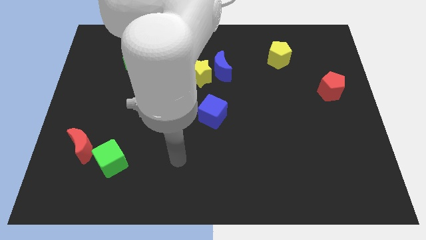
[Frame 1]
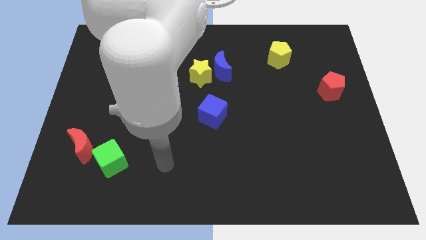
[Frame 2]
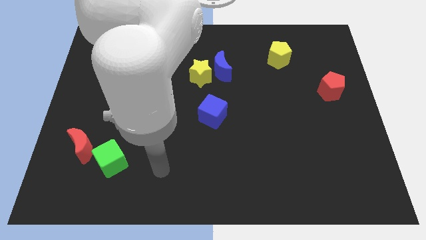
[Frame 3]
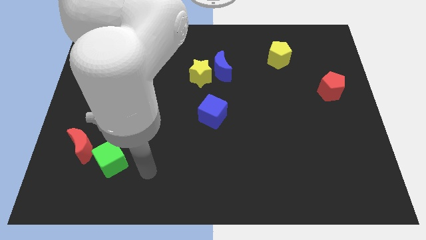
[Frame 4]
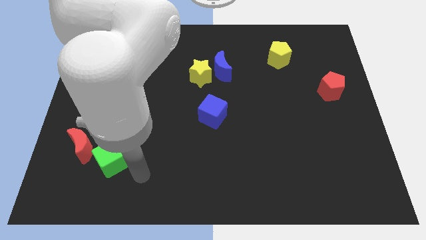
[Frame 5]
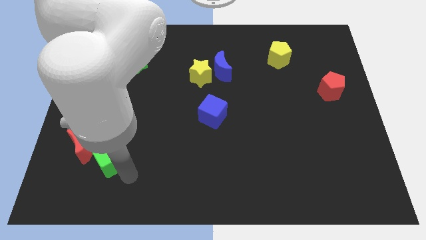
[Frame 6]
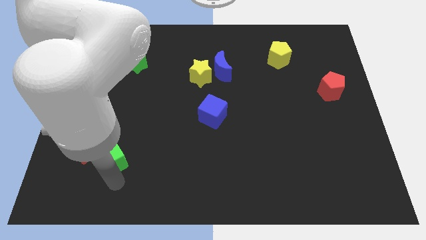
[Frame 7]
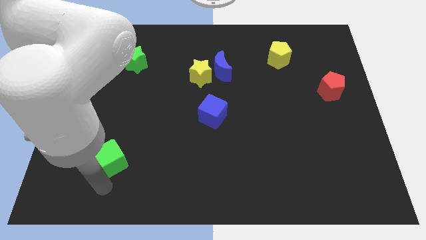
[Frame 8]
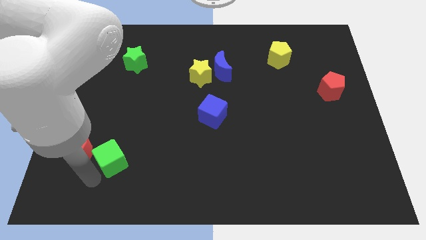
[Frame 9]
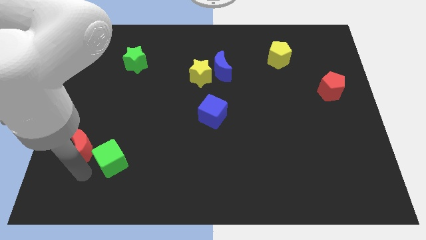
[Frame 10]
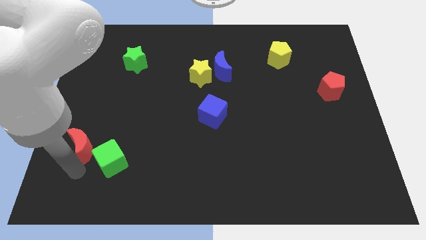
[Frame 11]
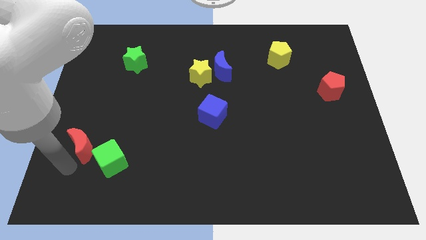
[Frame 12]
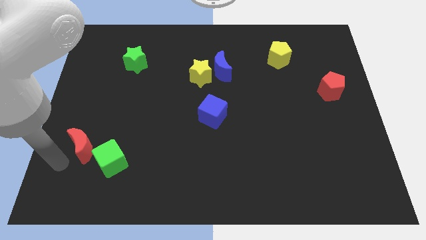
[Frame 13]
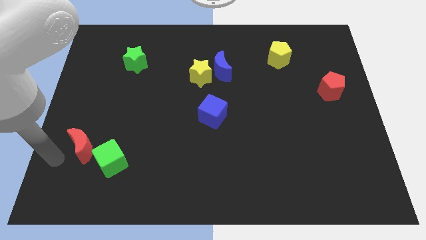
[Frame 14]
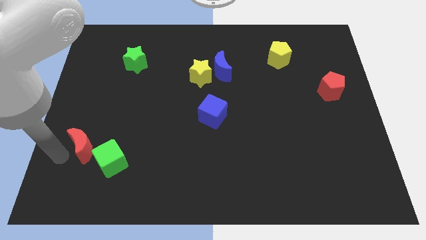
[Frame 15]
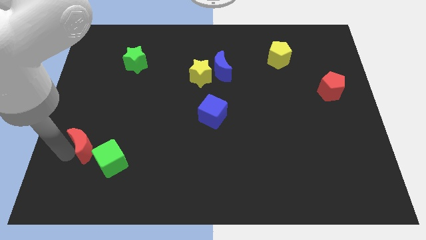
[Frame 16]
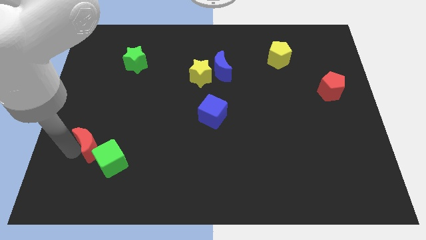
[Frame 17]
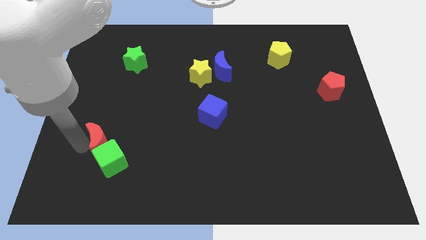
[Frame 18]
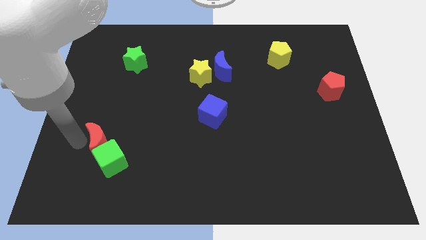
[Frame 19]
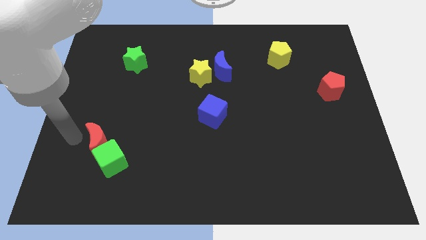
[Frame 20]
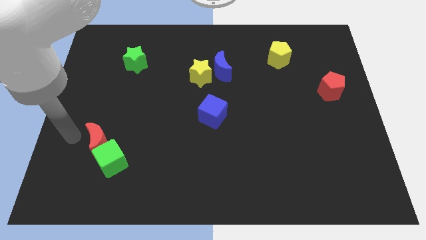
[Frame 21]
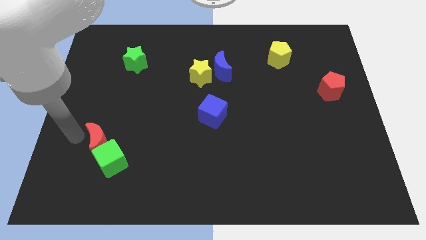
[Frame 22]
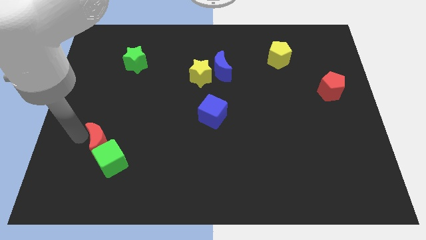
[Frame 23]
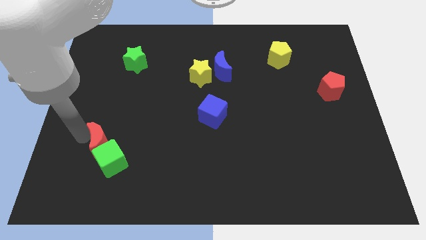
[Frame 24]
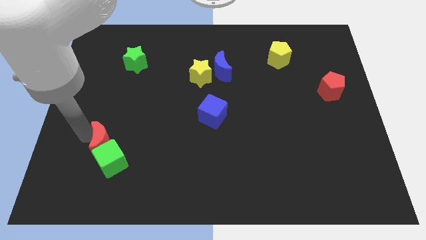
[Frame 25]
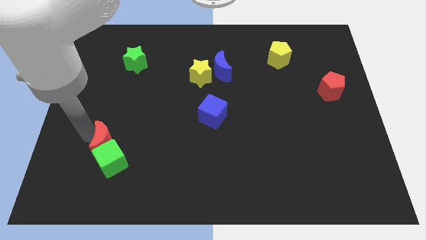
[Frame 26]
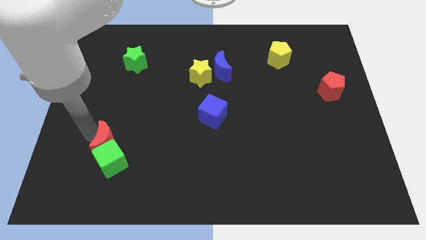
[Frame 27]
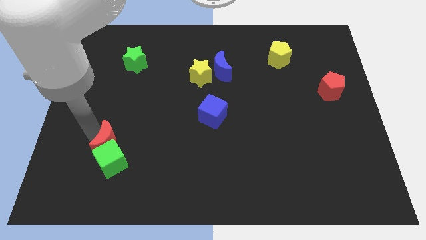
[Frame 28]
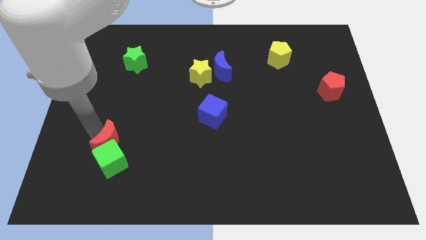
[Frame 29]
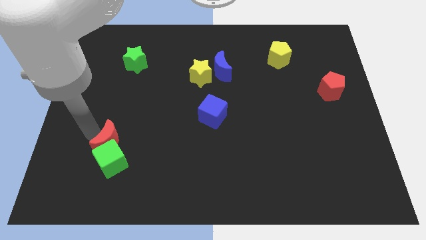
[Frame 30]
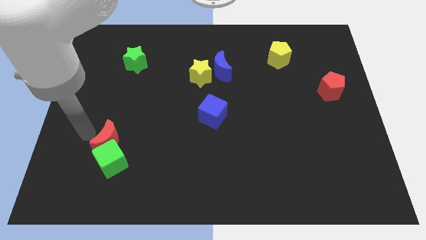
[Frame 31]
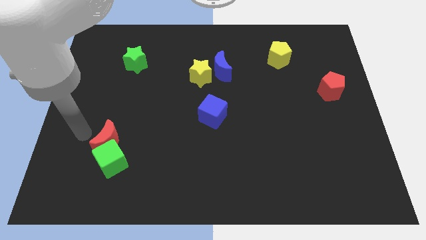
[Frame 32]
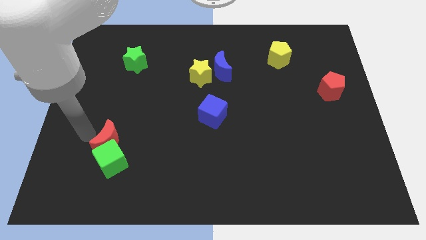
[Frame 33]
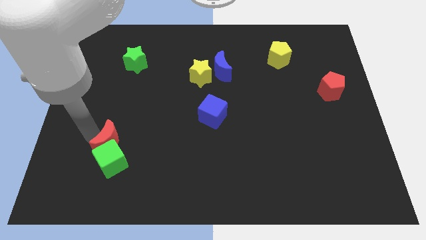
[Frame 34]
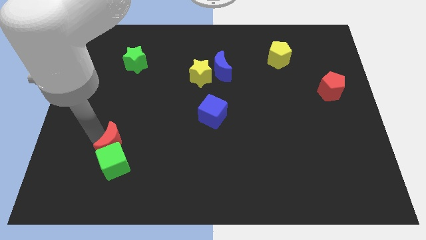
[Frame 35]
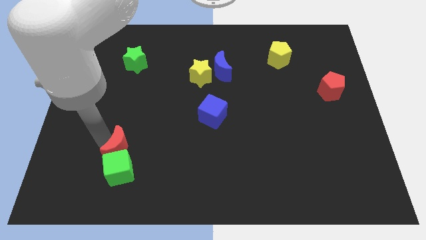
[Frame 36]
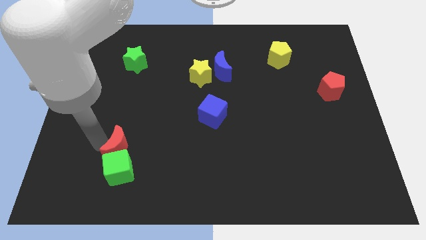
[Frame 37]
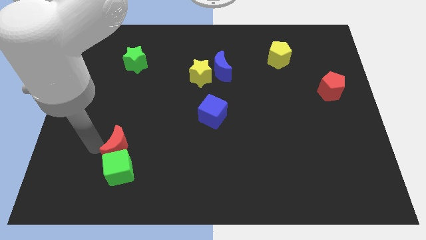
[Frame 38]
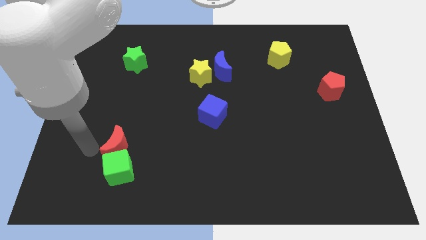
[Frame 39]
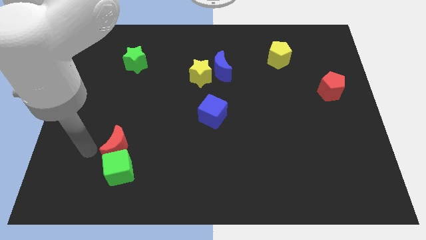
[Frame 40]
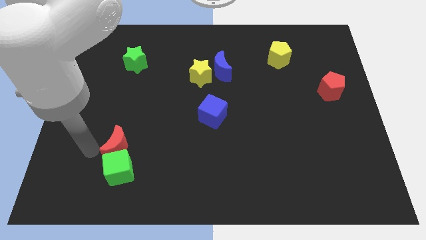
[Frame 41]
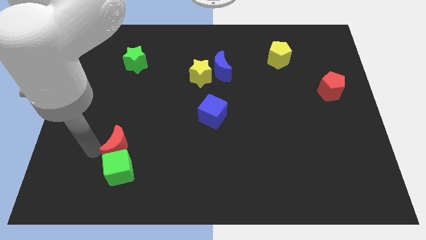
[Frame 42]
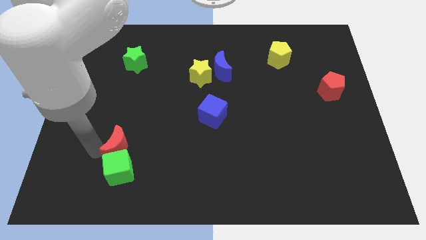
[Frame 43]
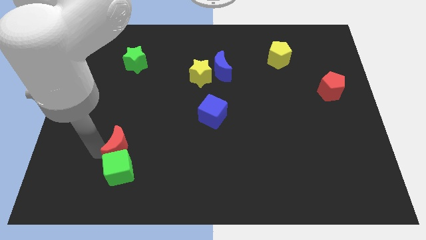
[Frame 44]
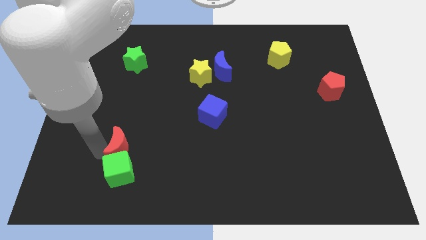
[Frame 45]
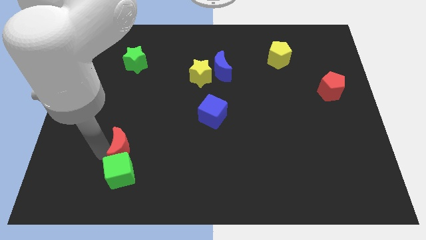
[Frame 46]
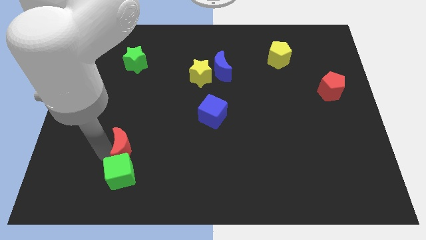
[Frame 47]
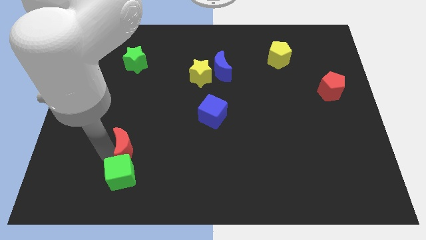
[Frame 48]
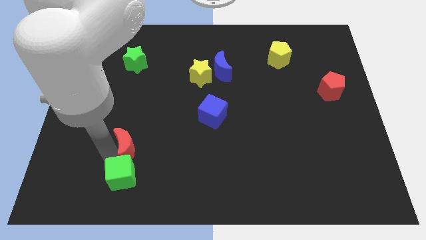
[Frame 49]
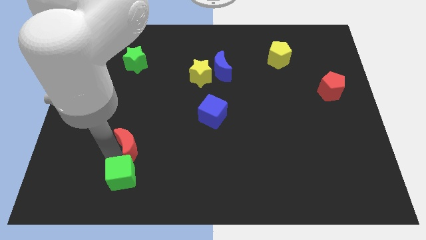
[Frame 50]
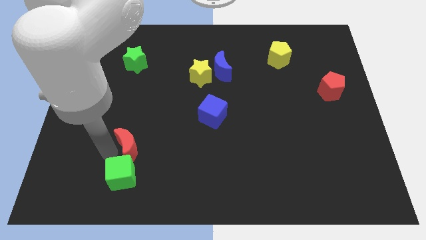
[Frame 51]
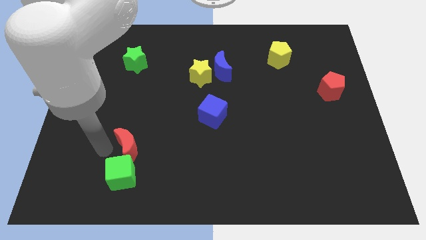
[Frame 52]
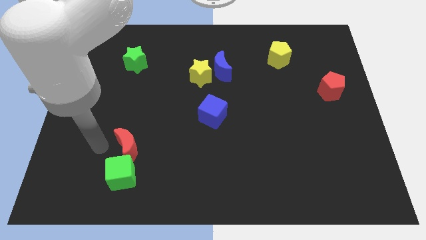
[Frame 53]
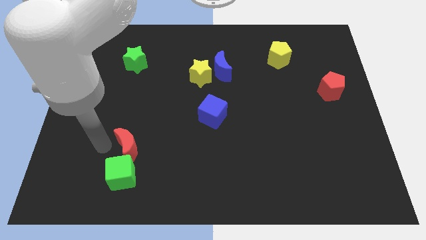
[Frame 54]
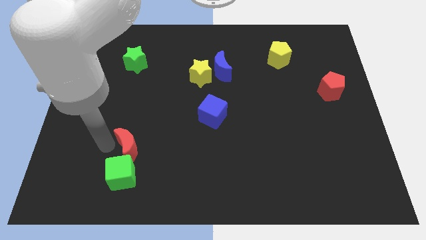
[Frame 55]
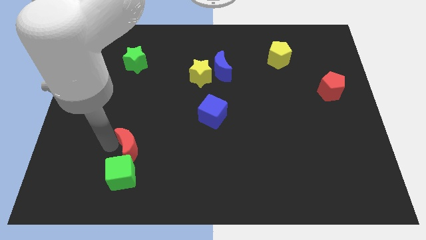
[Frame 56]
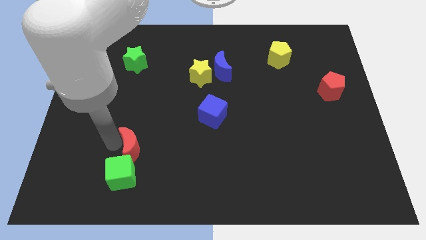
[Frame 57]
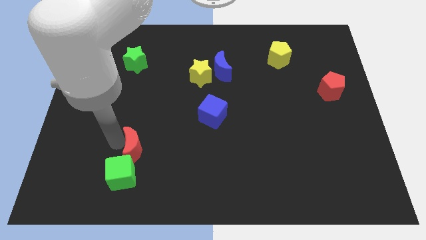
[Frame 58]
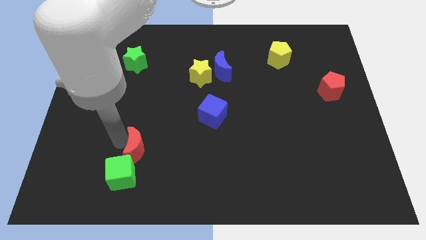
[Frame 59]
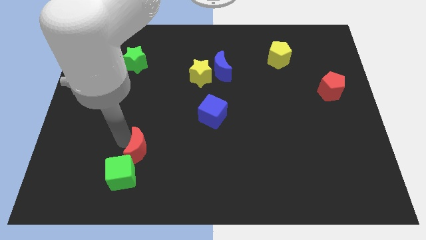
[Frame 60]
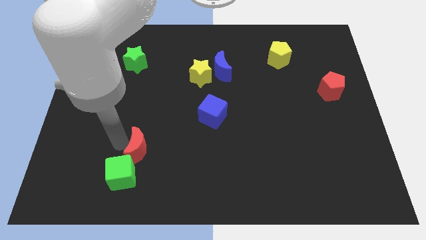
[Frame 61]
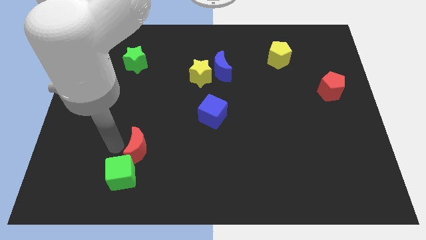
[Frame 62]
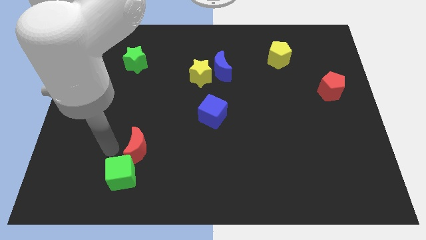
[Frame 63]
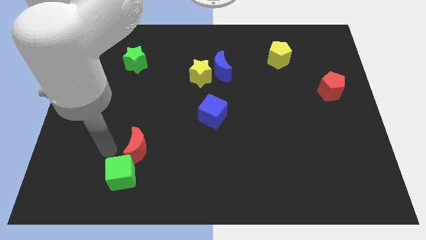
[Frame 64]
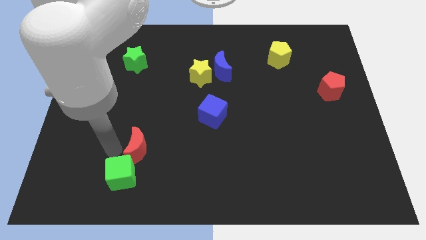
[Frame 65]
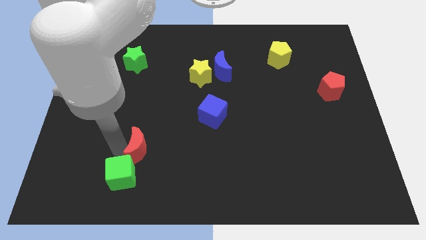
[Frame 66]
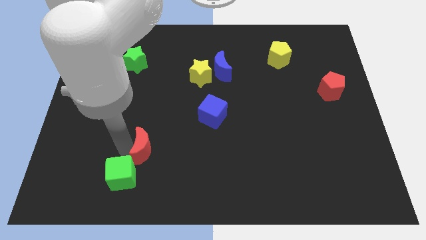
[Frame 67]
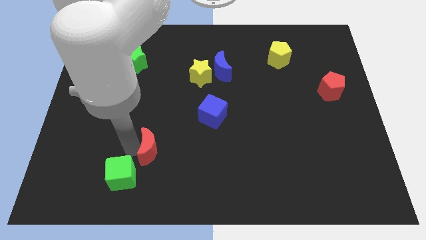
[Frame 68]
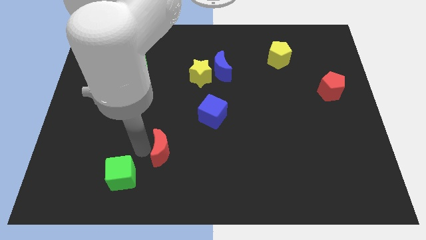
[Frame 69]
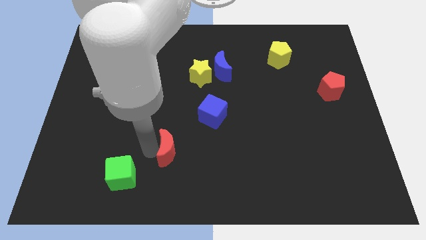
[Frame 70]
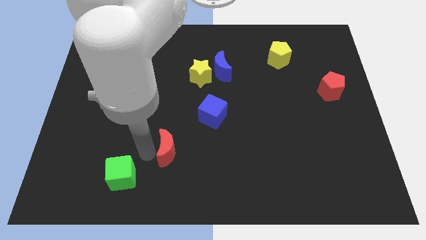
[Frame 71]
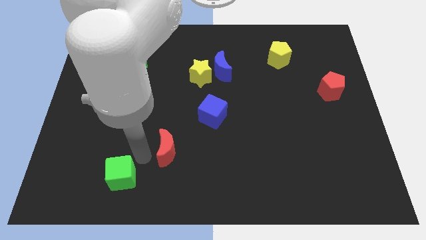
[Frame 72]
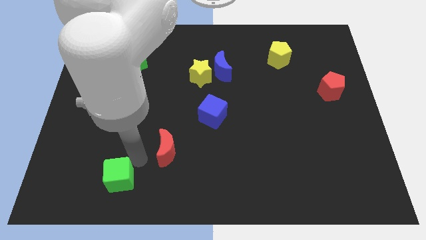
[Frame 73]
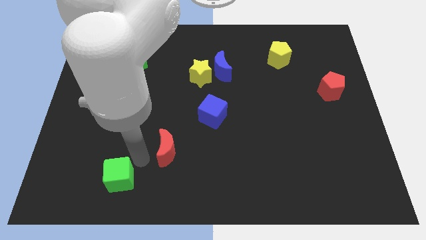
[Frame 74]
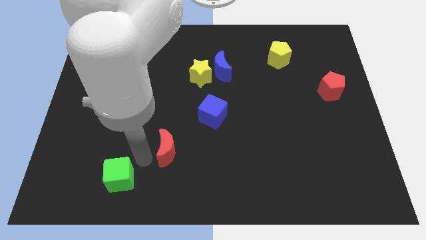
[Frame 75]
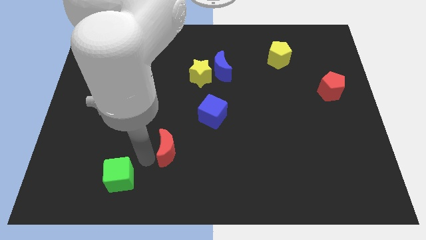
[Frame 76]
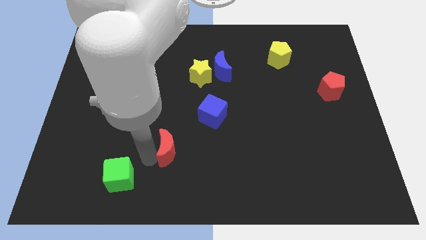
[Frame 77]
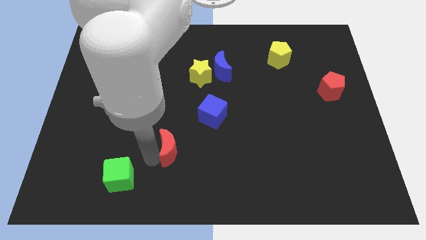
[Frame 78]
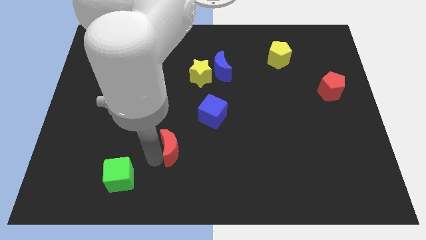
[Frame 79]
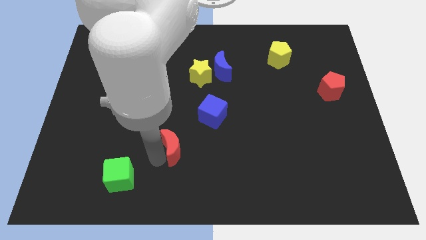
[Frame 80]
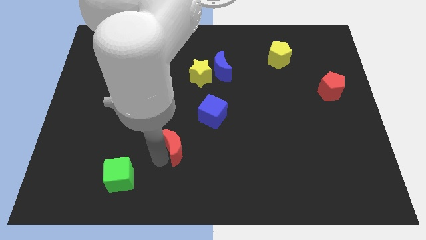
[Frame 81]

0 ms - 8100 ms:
push the red moon right
